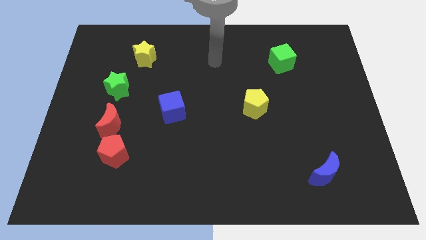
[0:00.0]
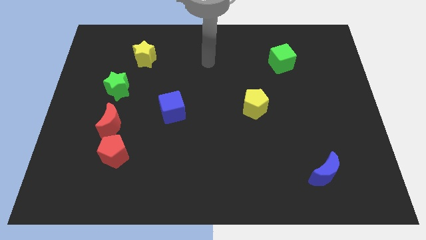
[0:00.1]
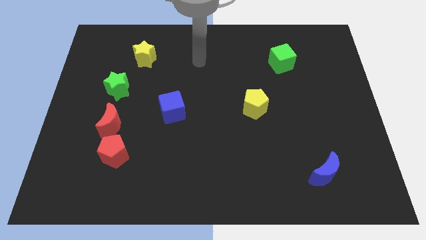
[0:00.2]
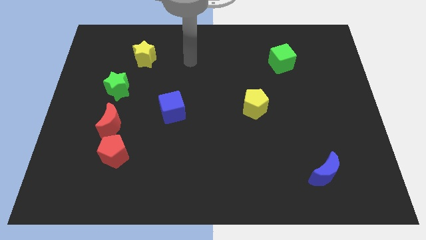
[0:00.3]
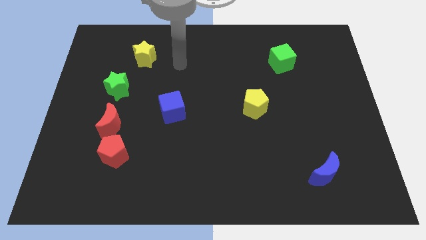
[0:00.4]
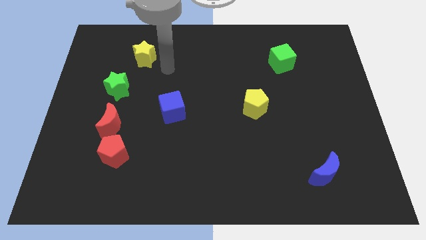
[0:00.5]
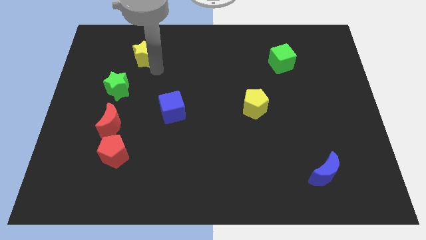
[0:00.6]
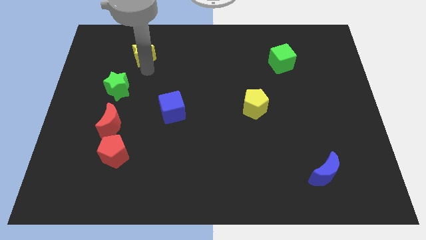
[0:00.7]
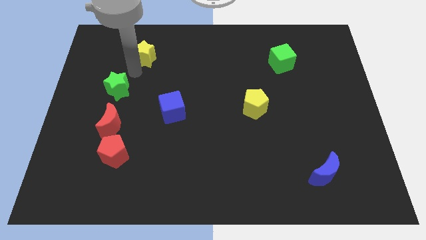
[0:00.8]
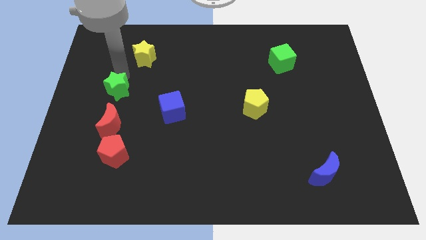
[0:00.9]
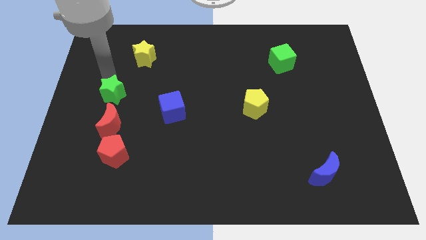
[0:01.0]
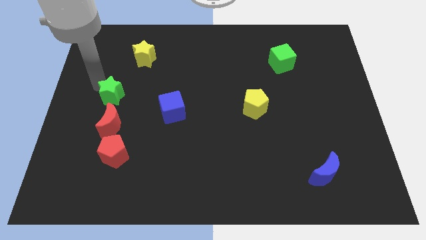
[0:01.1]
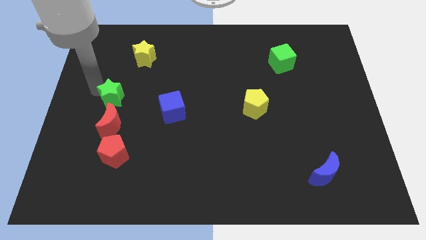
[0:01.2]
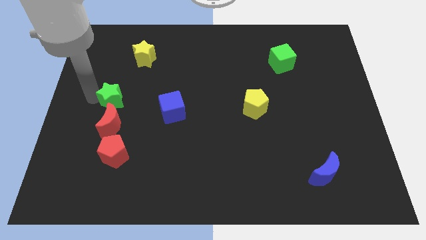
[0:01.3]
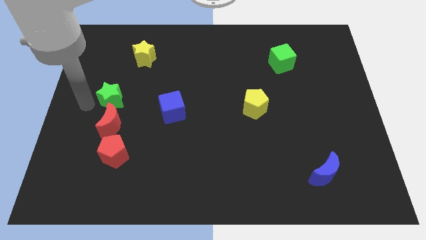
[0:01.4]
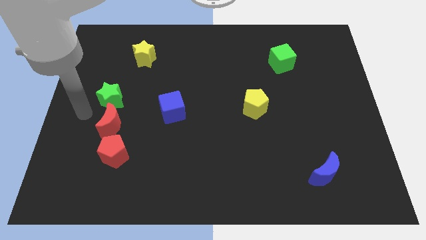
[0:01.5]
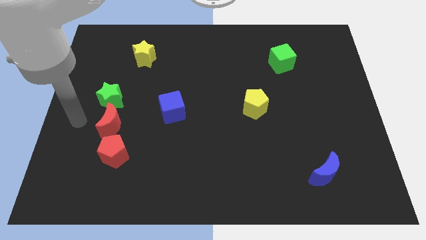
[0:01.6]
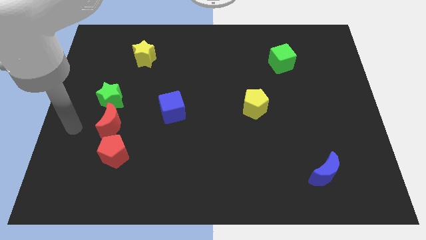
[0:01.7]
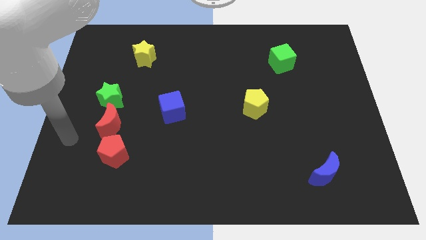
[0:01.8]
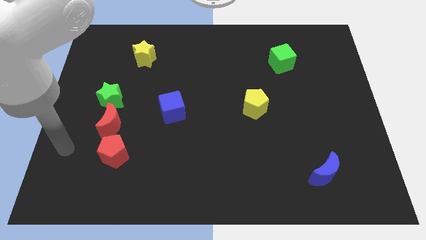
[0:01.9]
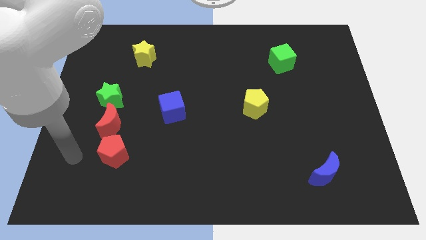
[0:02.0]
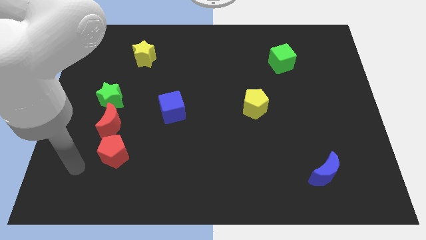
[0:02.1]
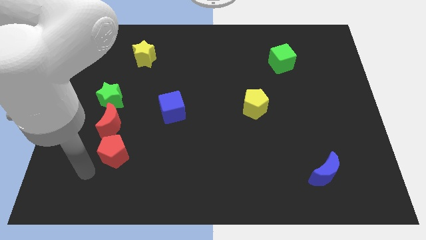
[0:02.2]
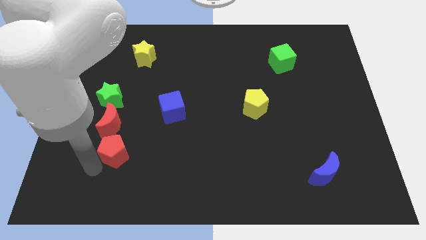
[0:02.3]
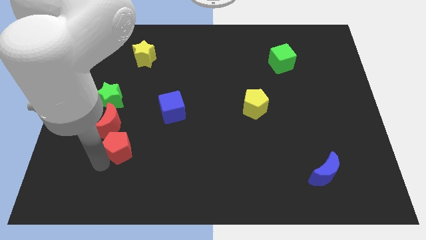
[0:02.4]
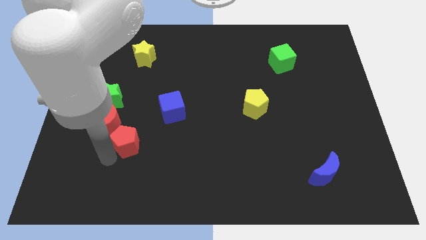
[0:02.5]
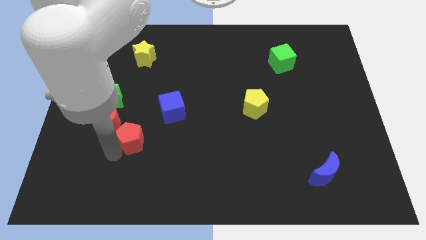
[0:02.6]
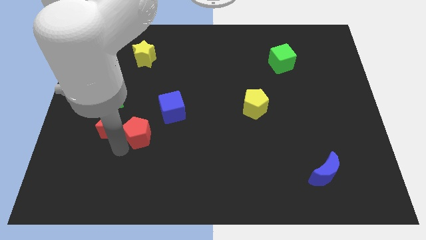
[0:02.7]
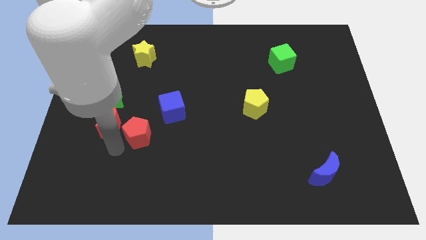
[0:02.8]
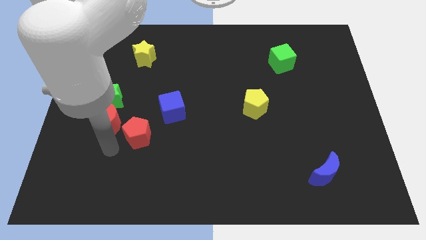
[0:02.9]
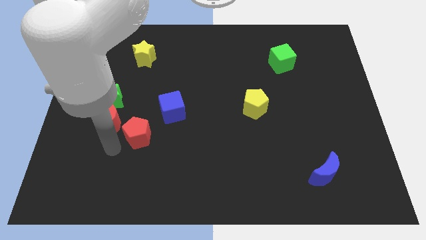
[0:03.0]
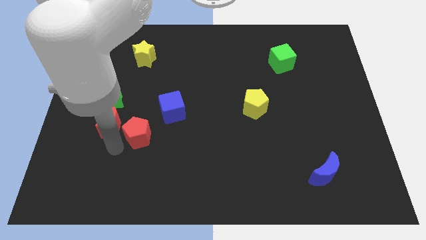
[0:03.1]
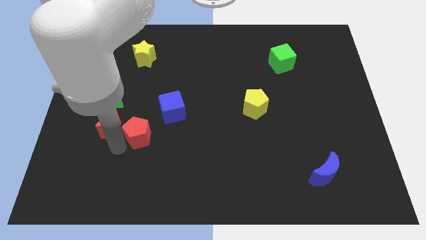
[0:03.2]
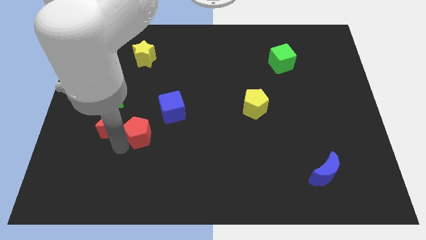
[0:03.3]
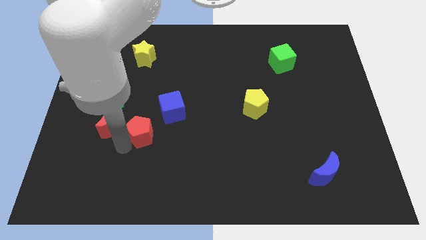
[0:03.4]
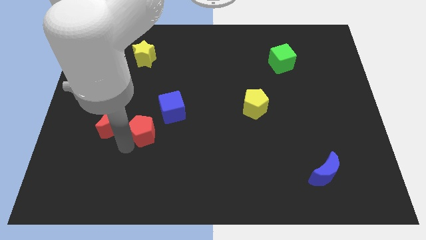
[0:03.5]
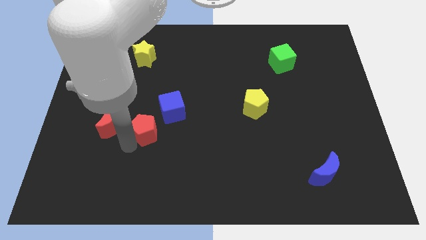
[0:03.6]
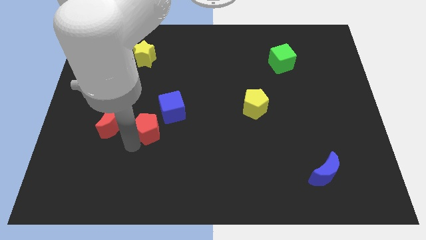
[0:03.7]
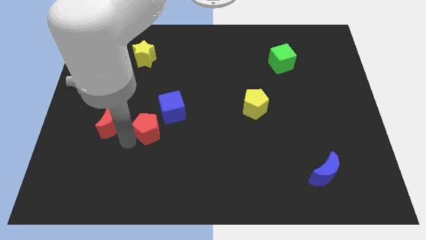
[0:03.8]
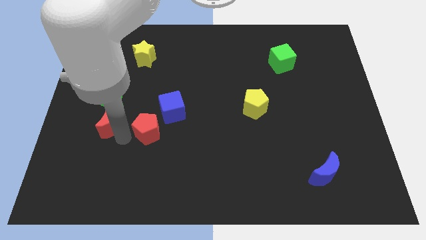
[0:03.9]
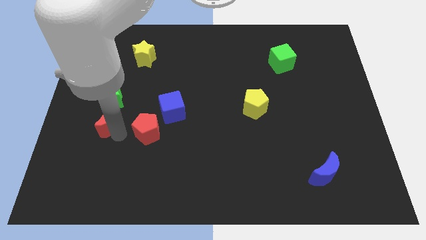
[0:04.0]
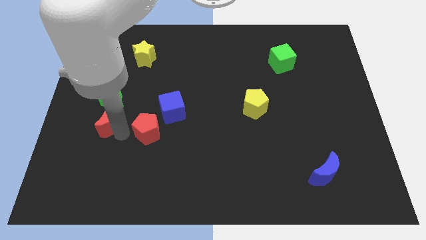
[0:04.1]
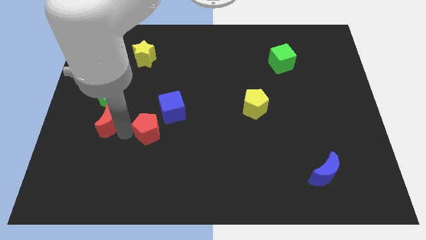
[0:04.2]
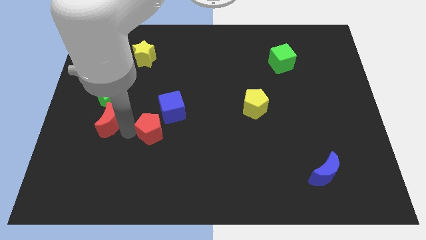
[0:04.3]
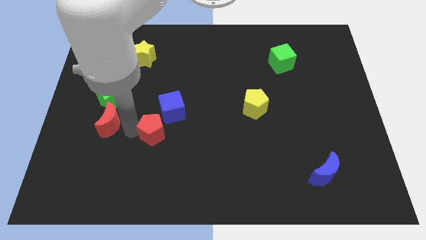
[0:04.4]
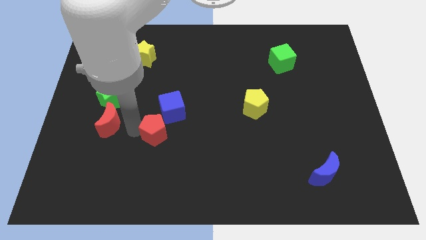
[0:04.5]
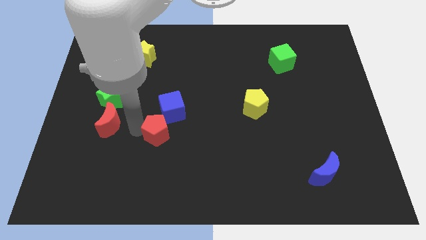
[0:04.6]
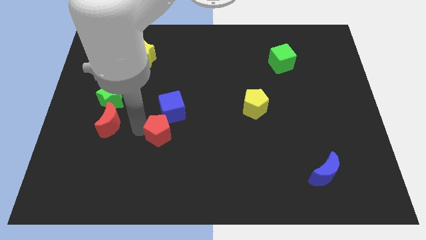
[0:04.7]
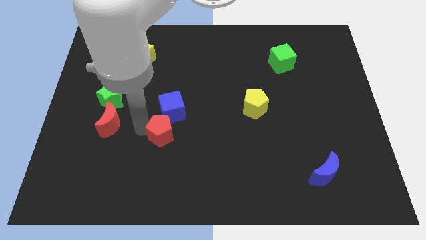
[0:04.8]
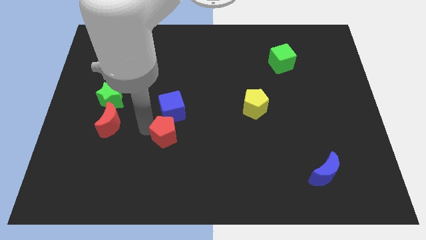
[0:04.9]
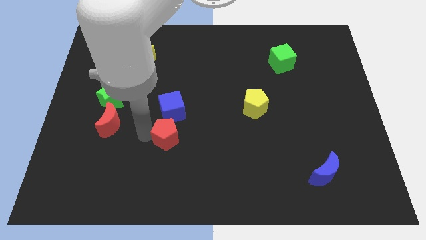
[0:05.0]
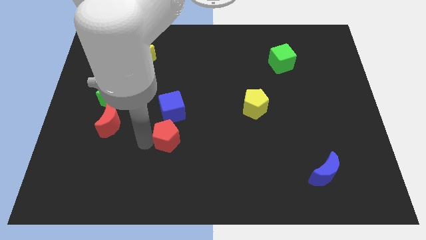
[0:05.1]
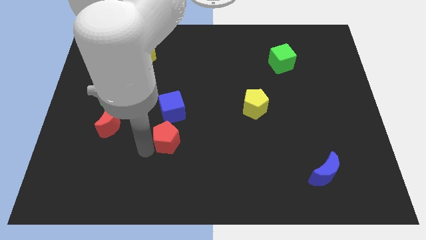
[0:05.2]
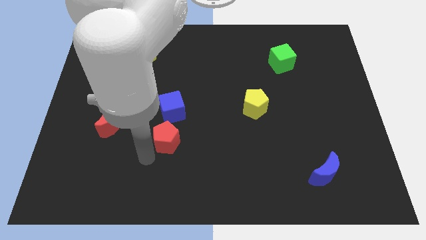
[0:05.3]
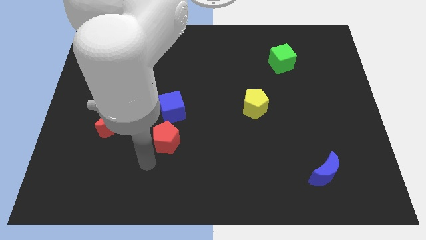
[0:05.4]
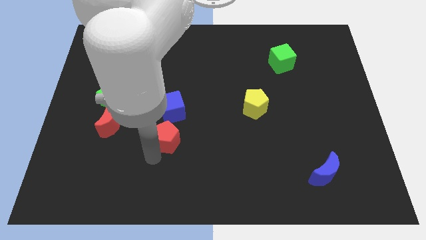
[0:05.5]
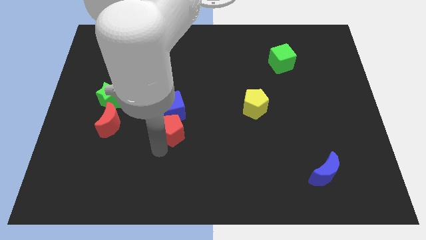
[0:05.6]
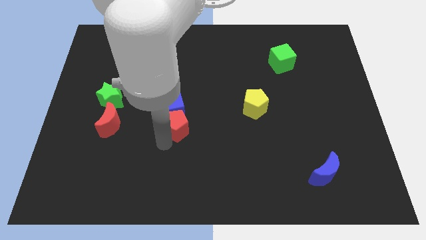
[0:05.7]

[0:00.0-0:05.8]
push the red pentagon to the center of the board

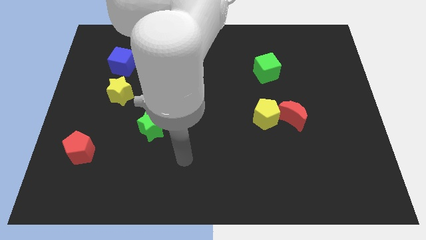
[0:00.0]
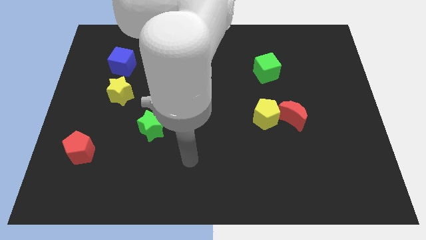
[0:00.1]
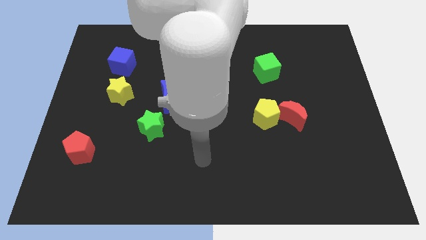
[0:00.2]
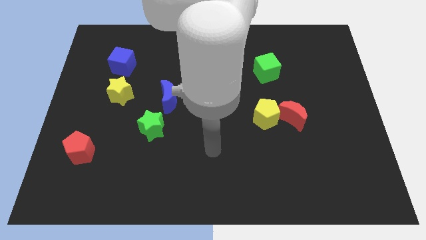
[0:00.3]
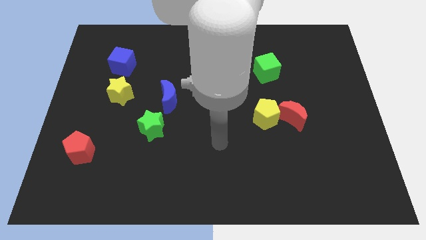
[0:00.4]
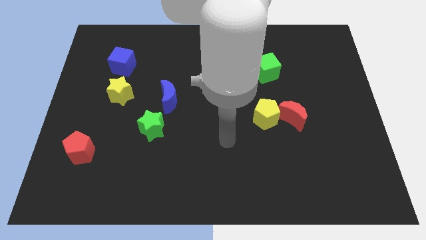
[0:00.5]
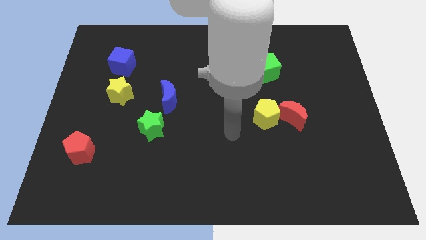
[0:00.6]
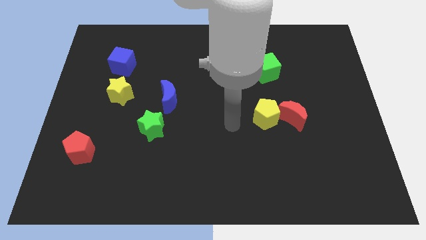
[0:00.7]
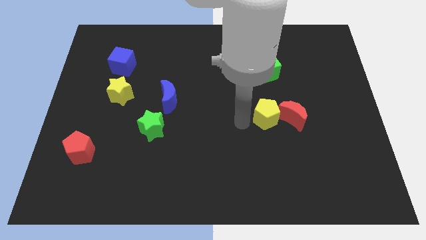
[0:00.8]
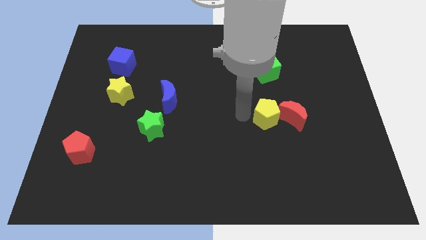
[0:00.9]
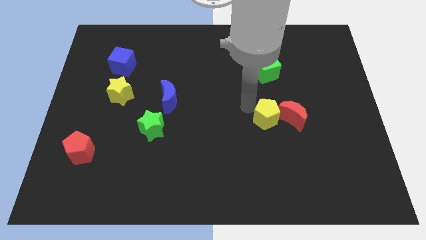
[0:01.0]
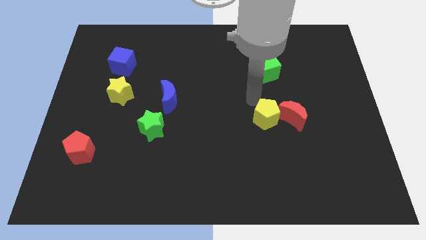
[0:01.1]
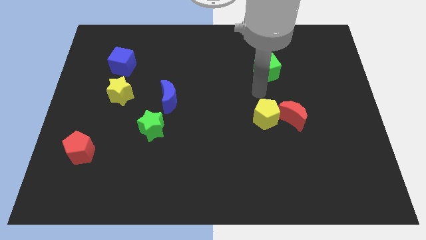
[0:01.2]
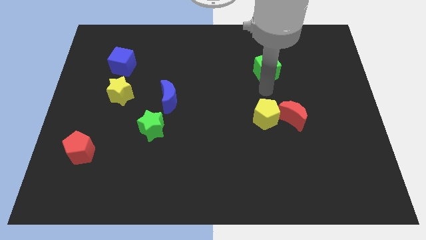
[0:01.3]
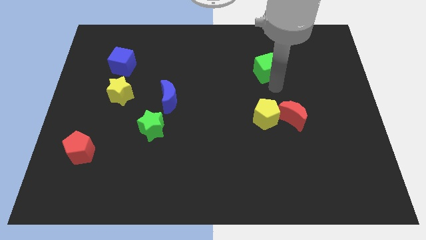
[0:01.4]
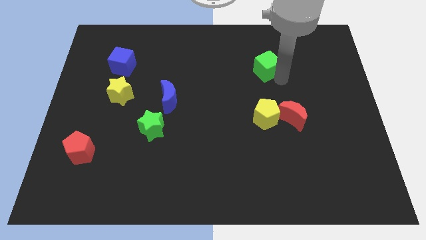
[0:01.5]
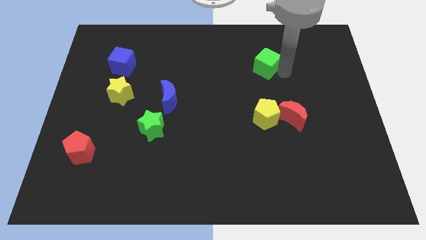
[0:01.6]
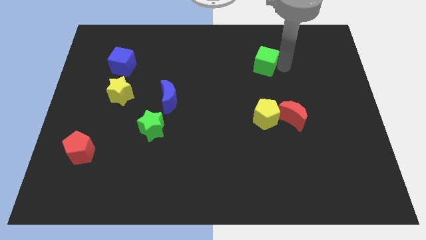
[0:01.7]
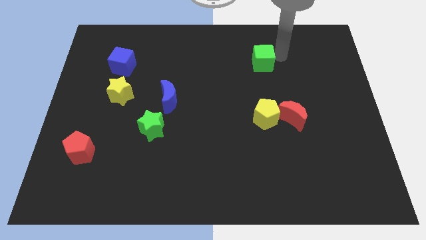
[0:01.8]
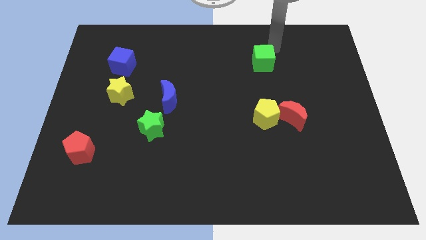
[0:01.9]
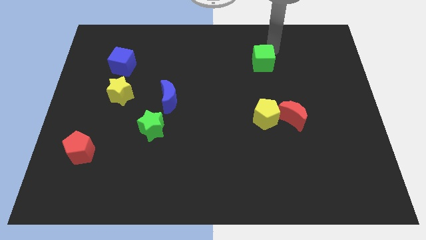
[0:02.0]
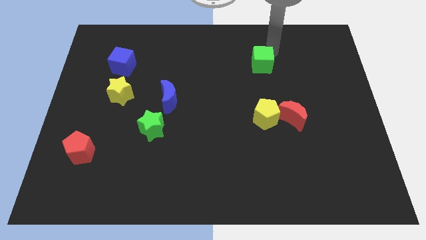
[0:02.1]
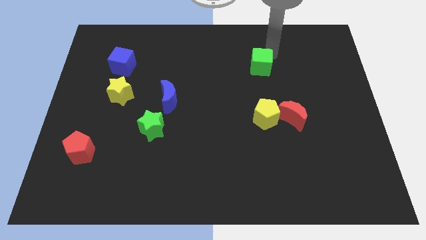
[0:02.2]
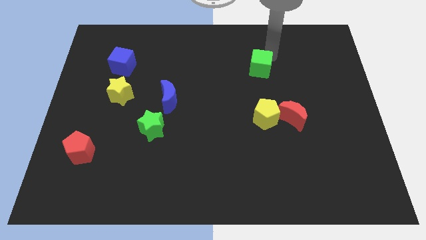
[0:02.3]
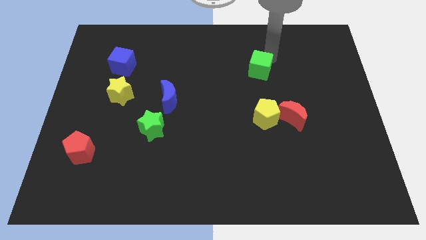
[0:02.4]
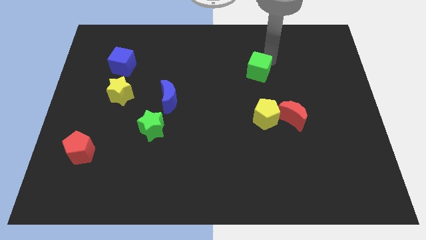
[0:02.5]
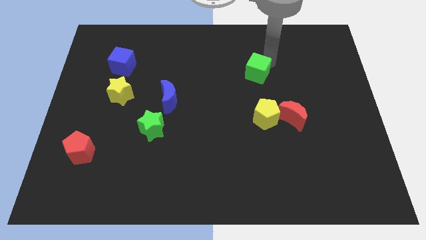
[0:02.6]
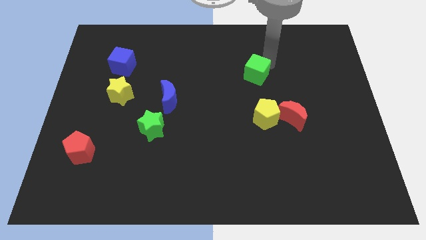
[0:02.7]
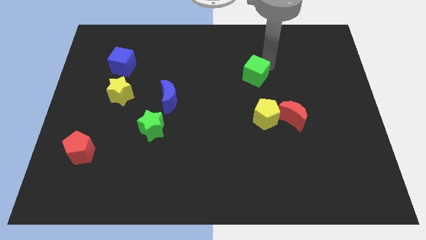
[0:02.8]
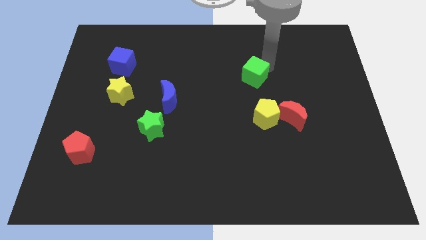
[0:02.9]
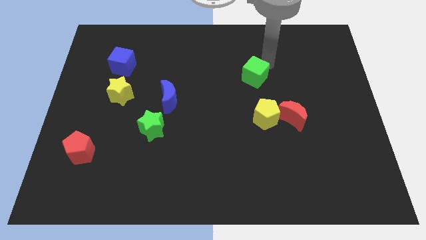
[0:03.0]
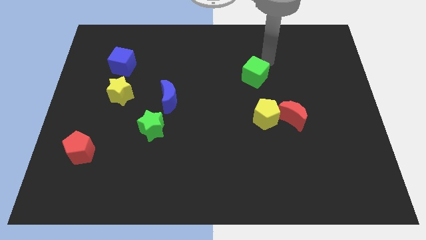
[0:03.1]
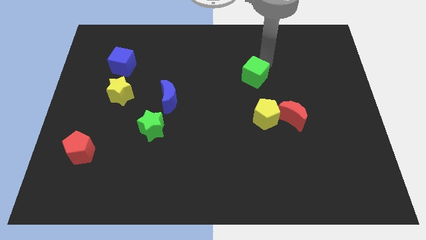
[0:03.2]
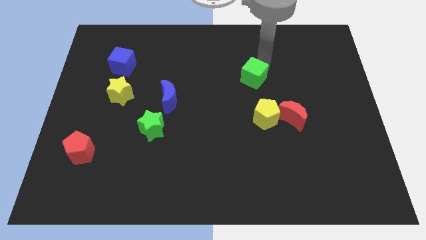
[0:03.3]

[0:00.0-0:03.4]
slide the green cube to the middle of the board
